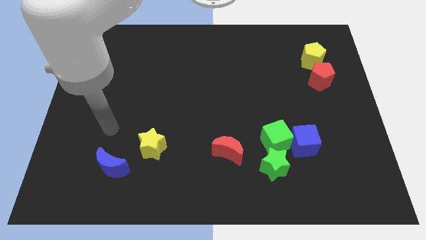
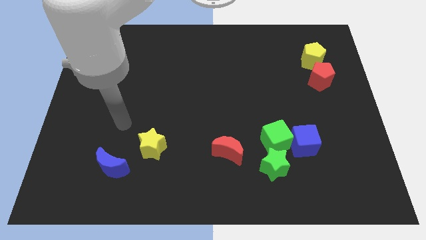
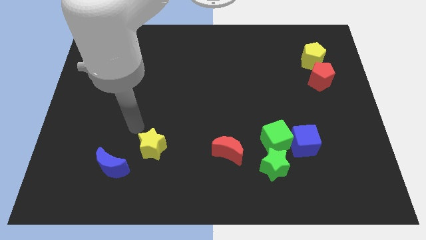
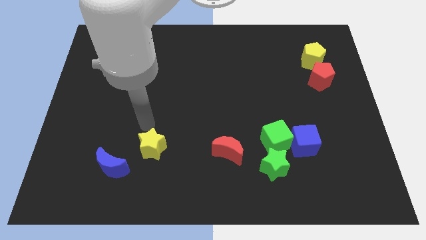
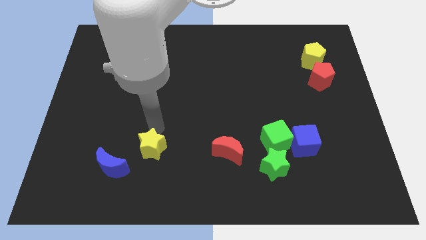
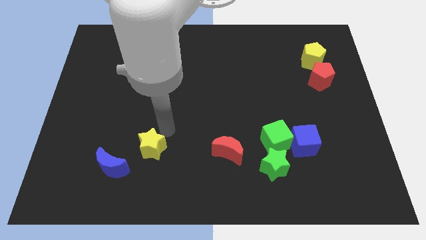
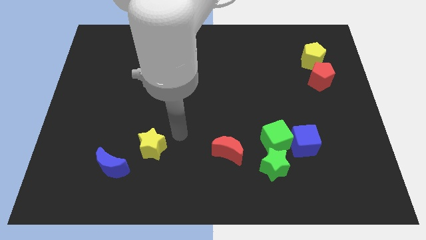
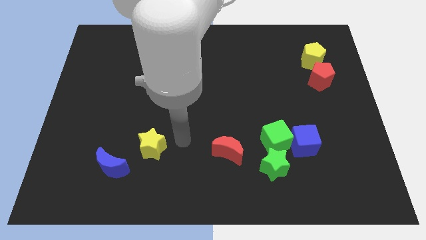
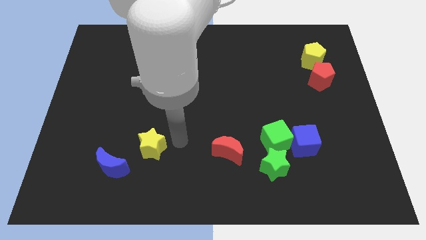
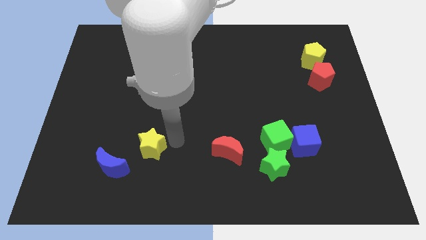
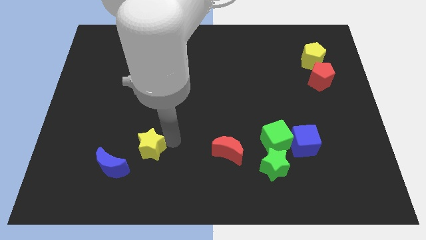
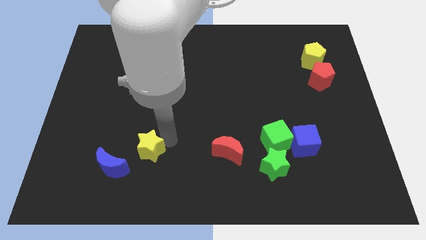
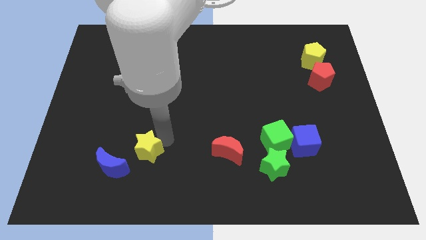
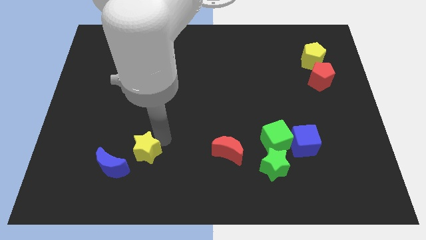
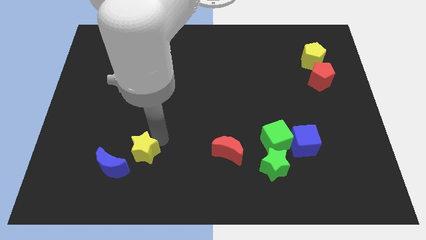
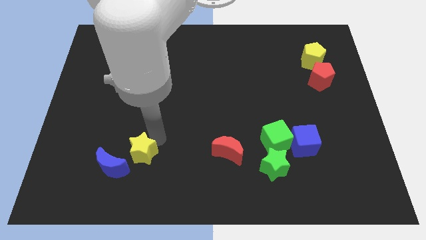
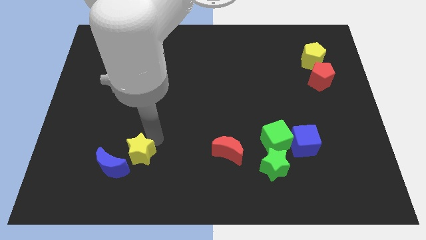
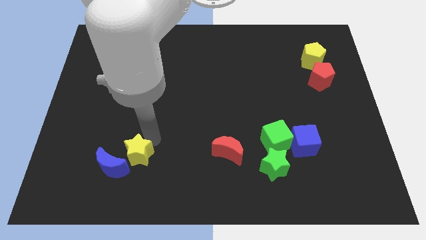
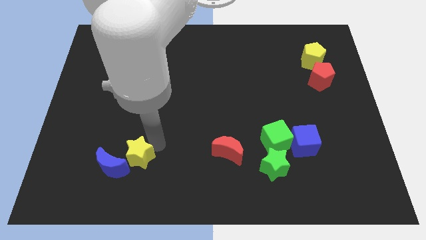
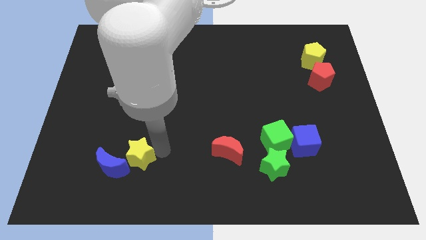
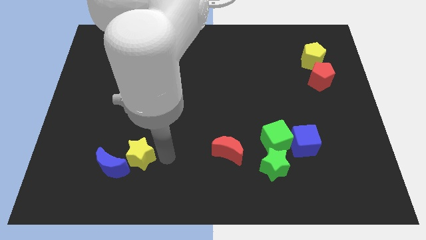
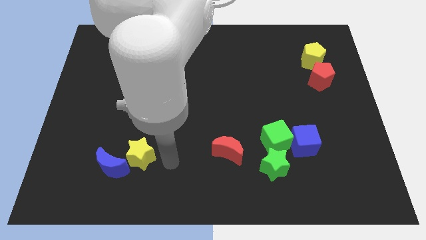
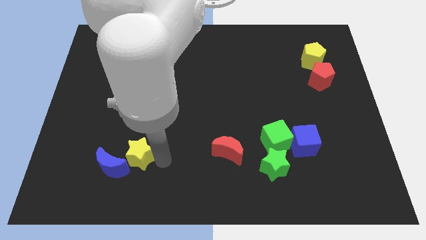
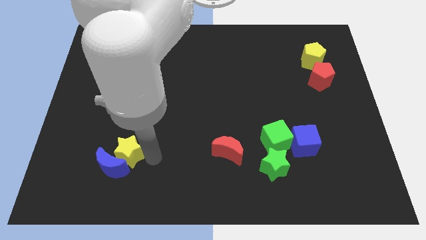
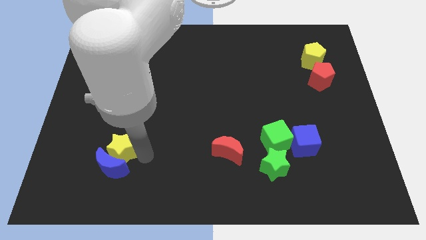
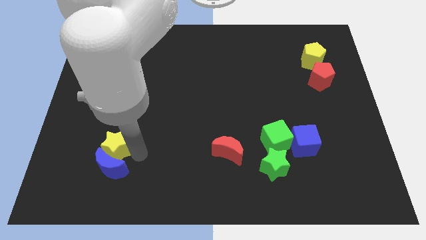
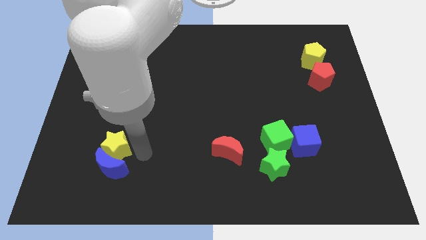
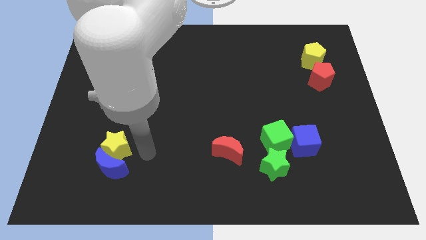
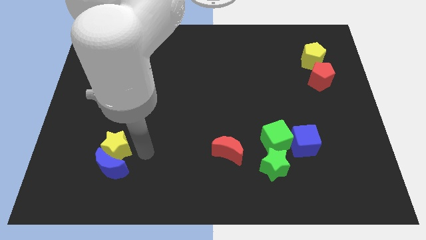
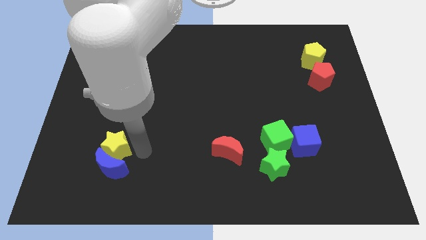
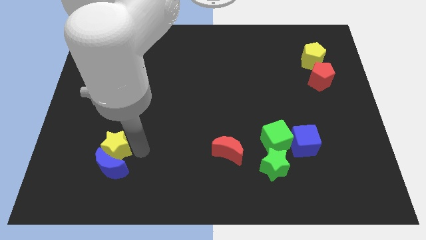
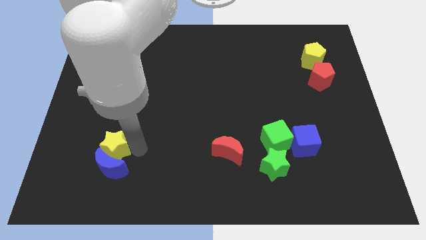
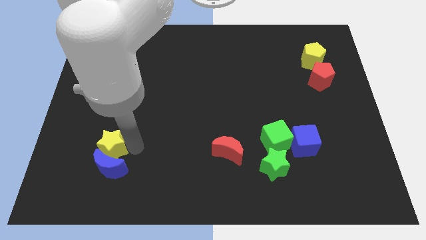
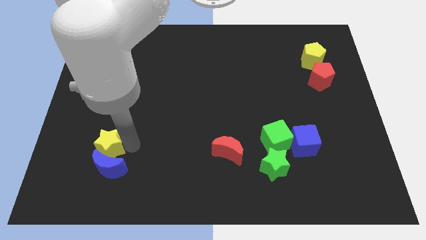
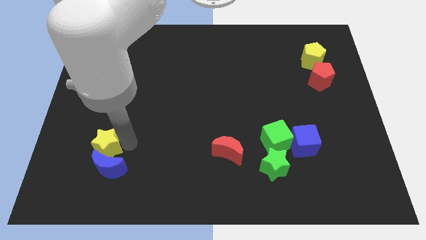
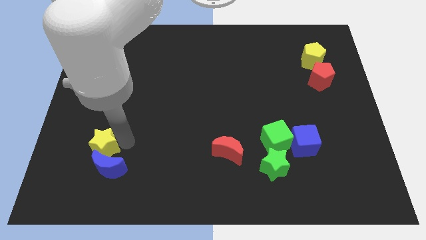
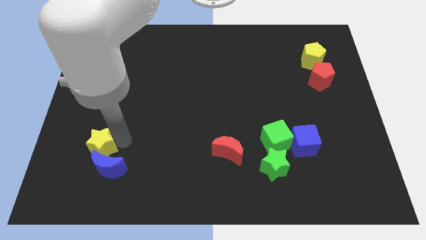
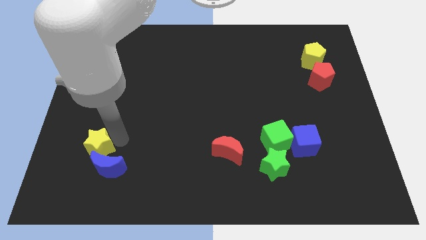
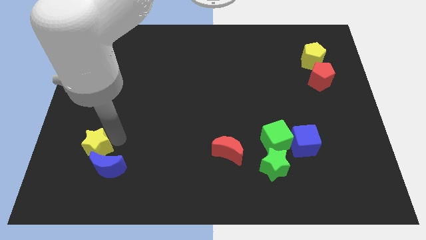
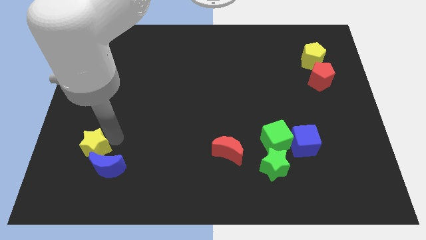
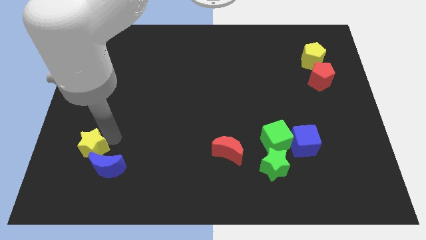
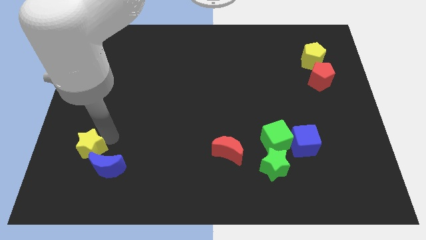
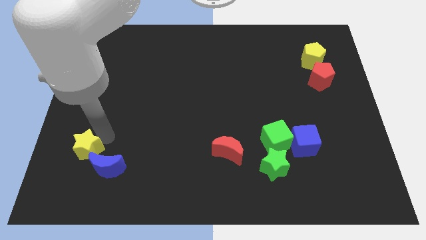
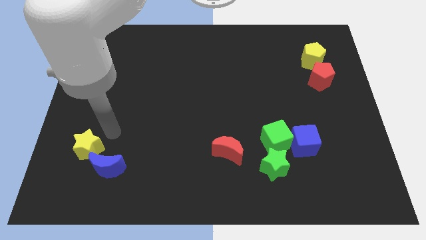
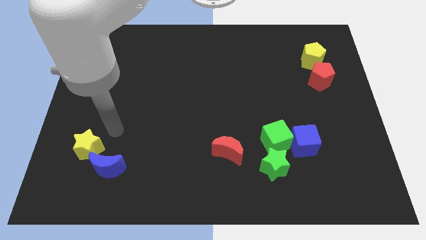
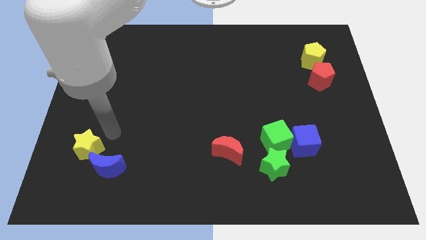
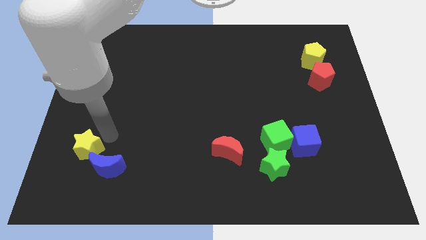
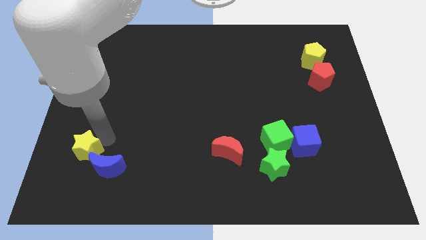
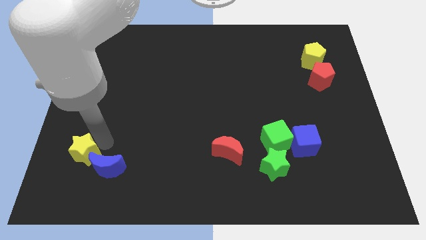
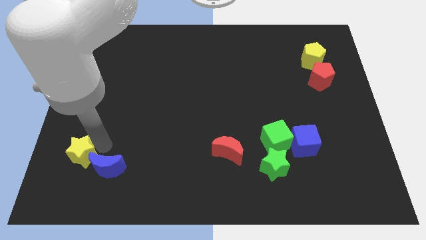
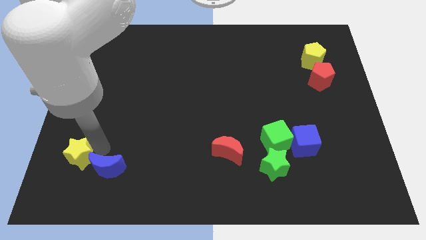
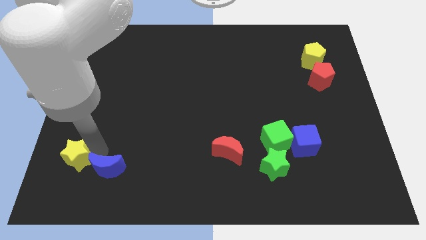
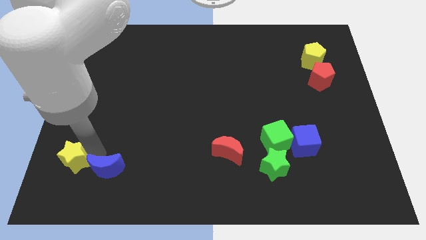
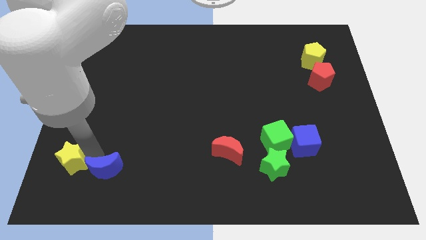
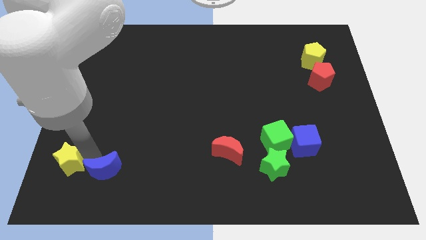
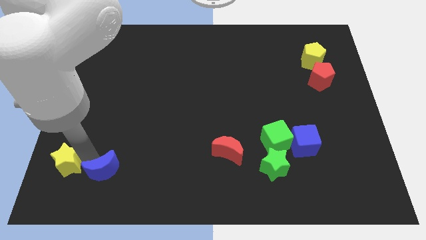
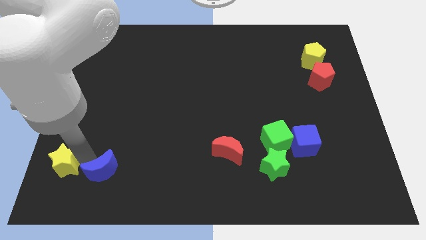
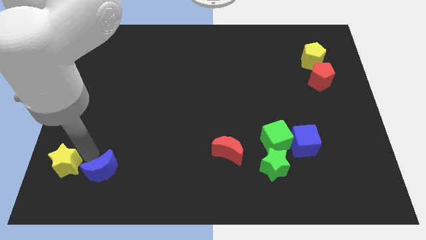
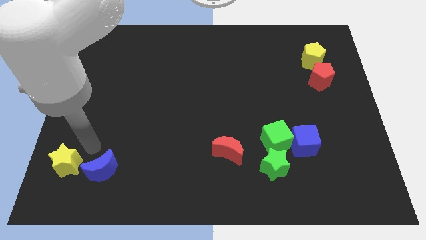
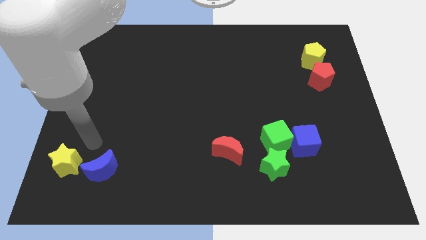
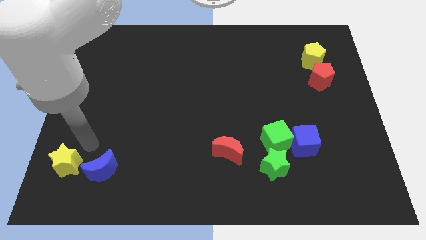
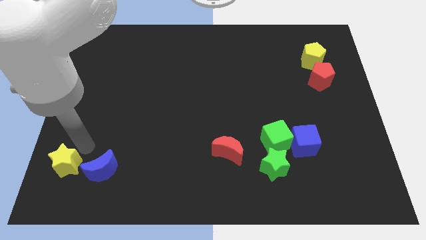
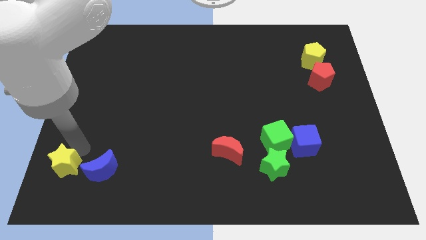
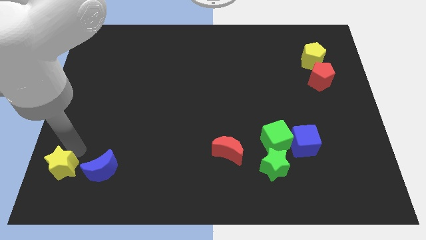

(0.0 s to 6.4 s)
slide the yellow star to the bottom left

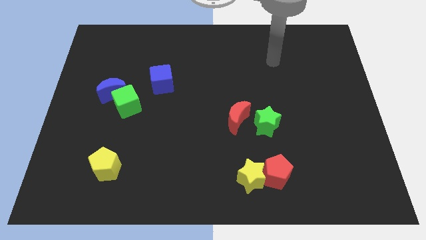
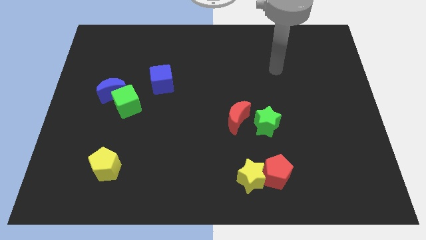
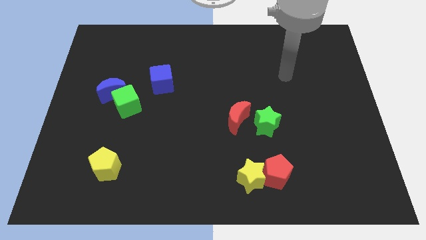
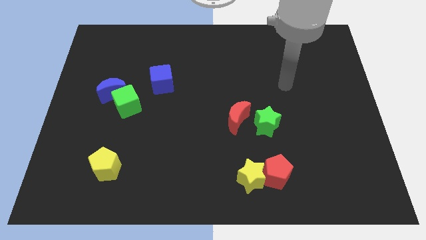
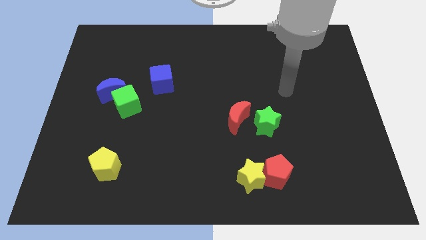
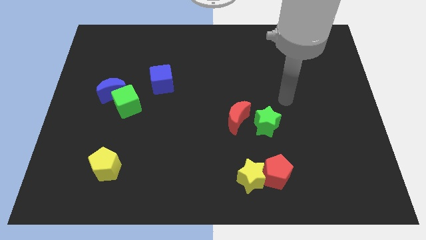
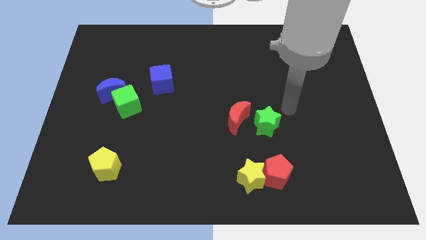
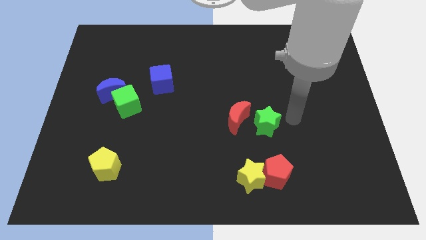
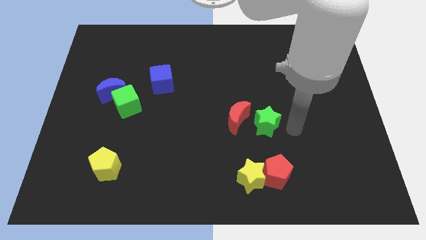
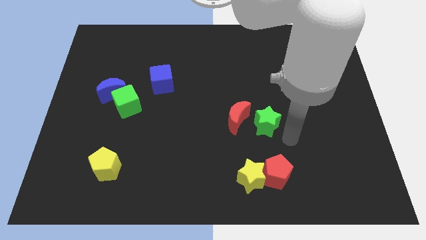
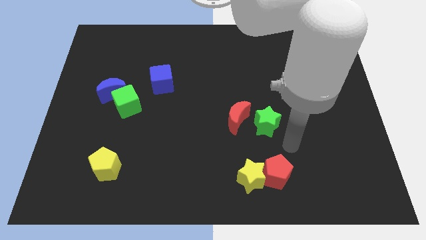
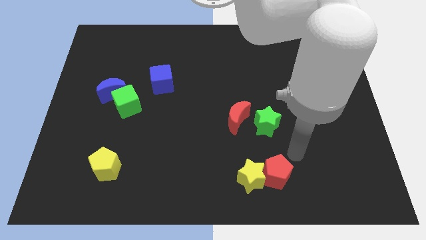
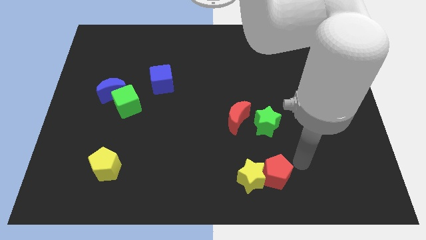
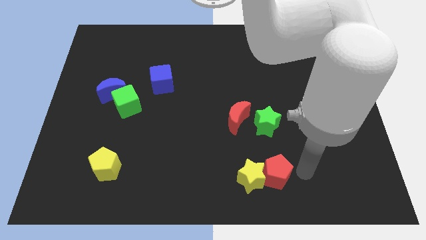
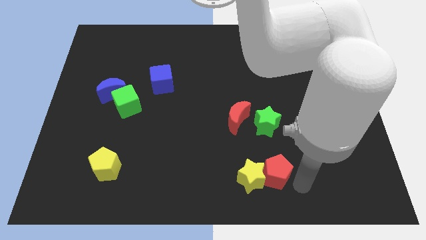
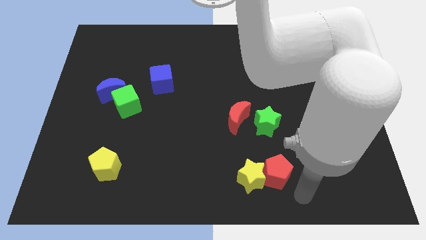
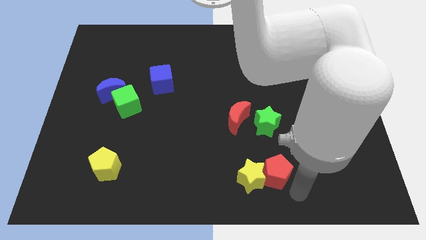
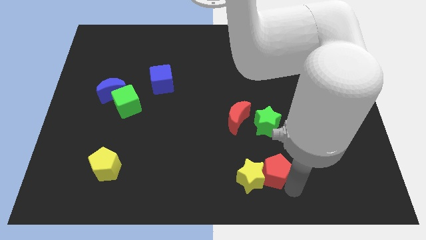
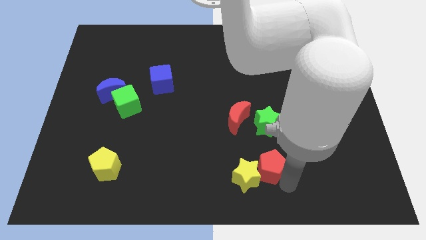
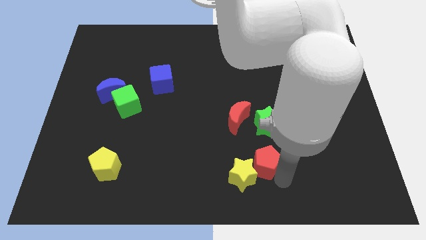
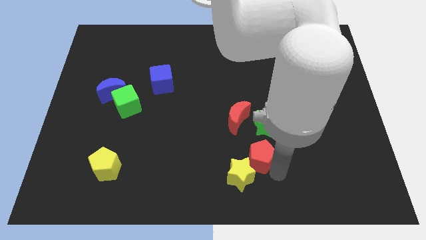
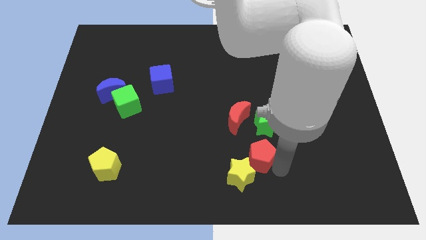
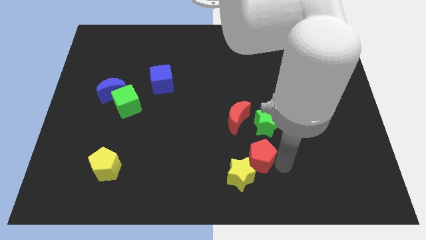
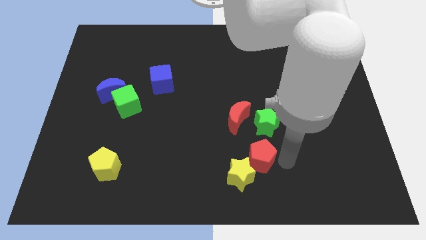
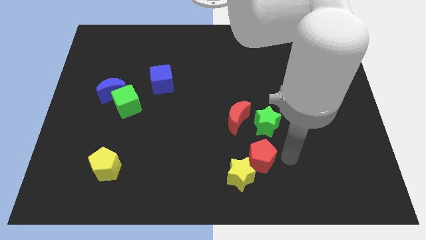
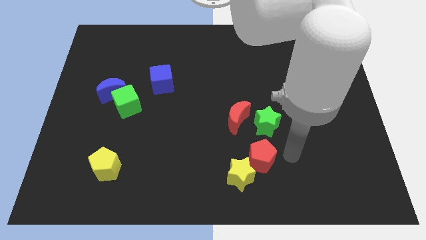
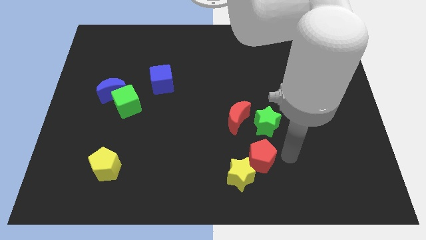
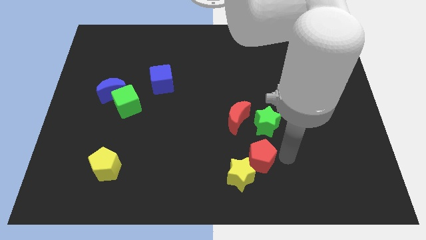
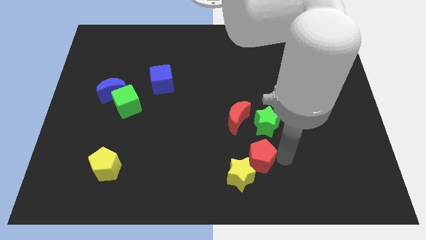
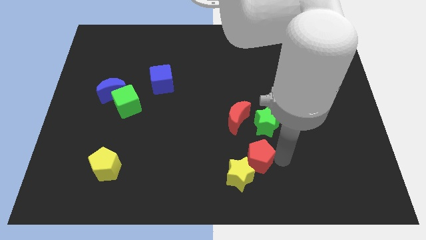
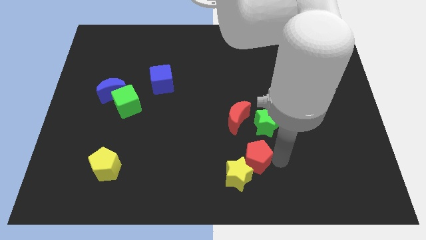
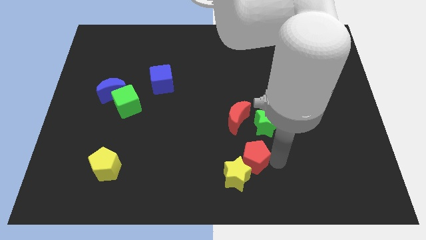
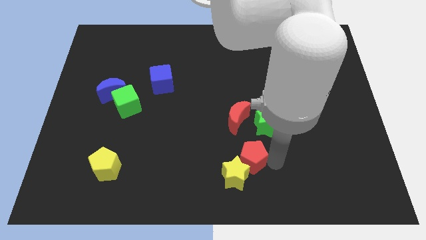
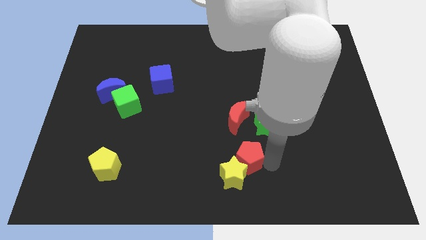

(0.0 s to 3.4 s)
slide the red pentagon to the bottom side
